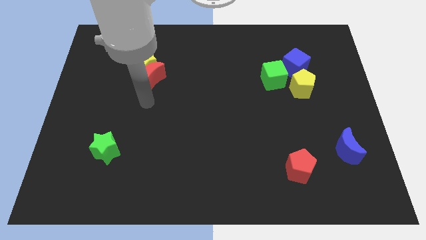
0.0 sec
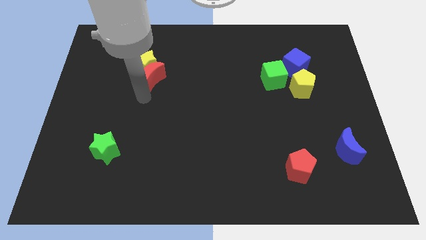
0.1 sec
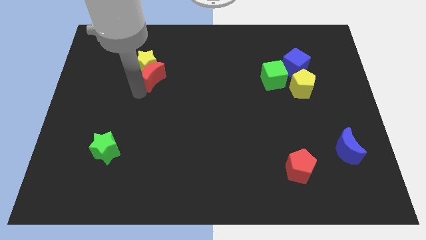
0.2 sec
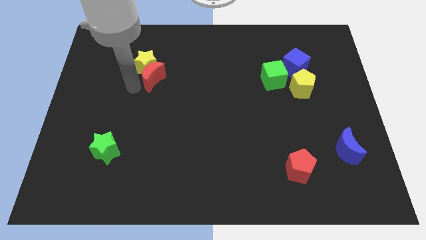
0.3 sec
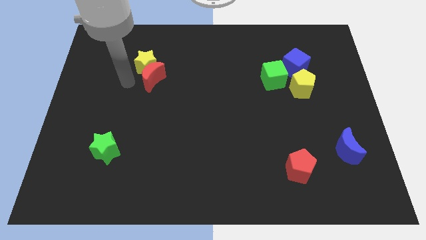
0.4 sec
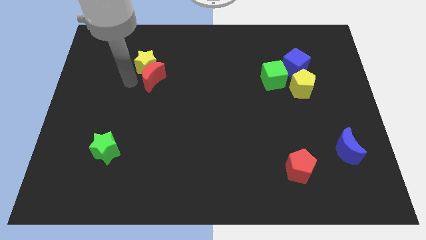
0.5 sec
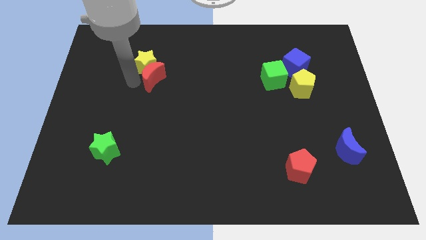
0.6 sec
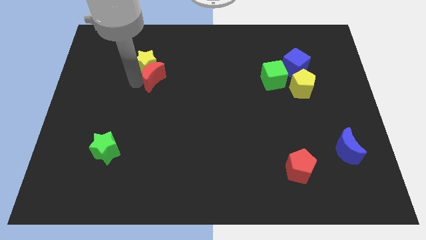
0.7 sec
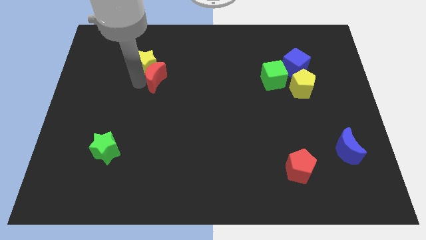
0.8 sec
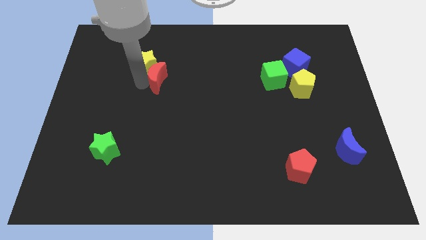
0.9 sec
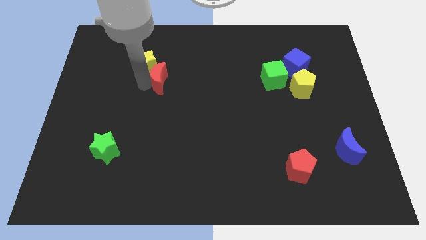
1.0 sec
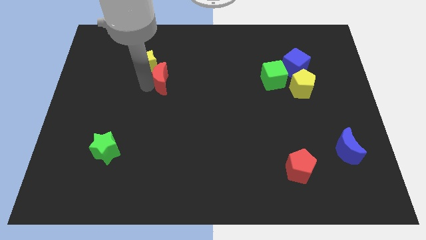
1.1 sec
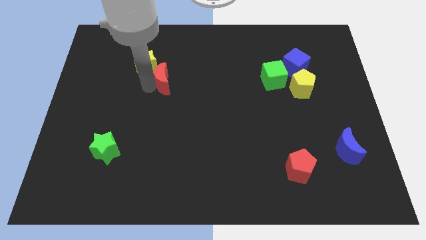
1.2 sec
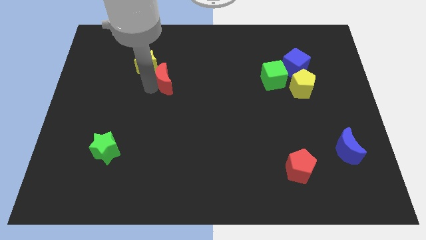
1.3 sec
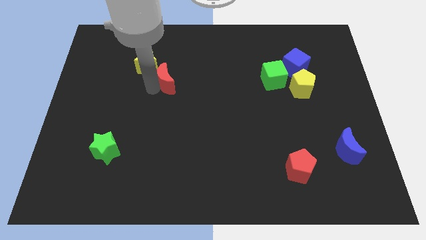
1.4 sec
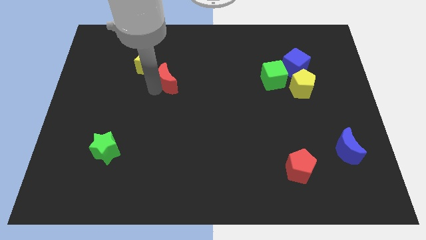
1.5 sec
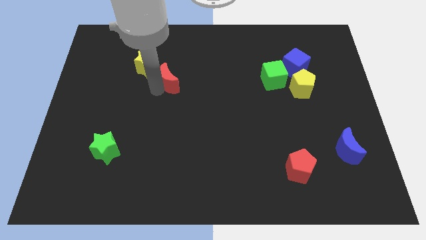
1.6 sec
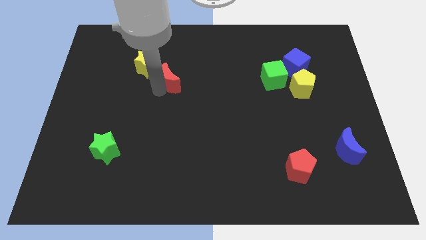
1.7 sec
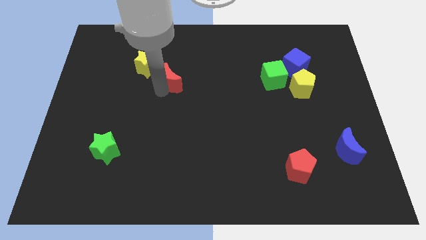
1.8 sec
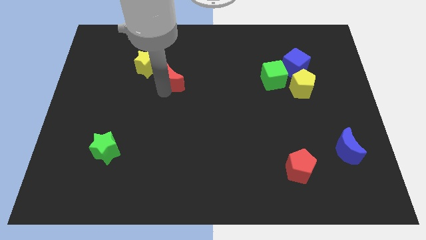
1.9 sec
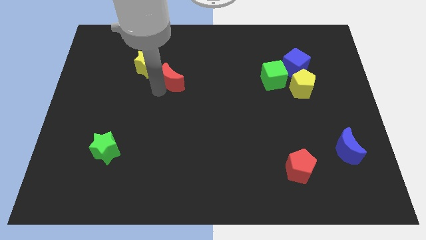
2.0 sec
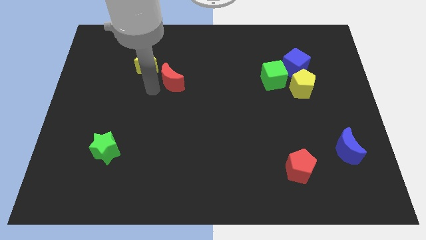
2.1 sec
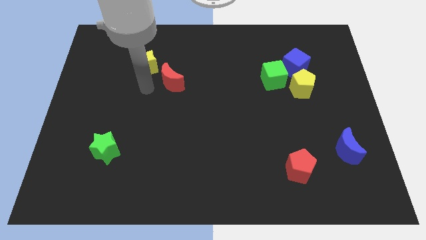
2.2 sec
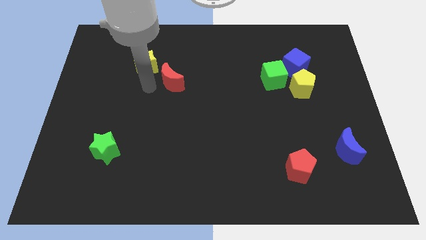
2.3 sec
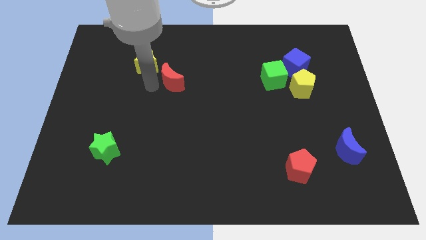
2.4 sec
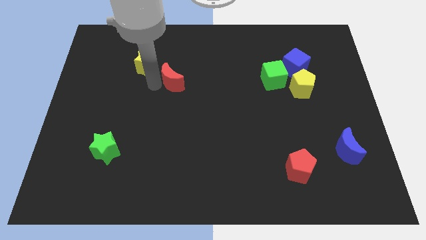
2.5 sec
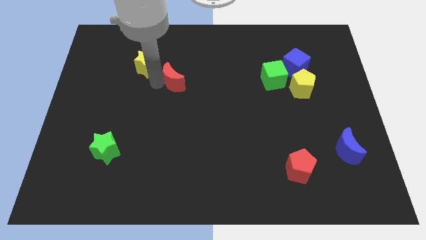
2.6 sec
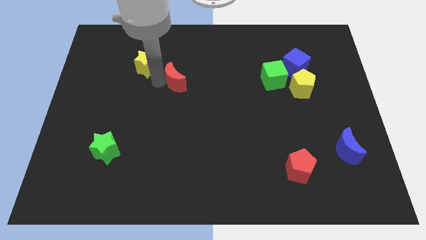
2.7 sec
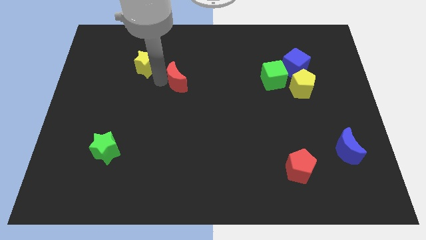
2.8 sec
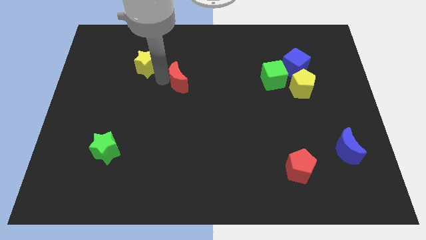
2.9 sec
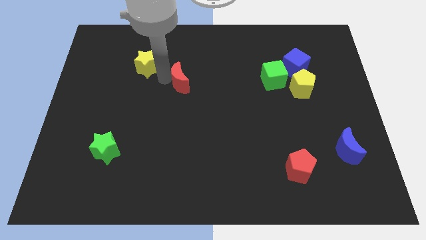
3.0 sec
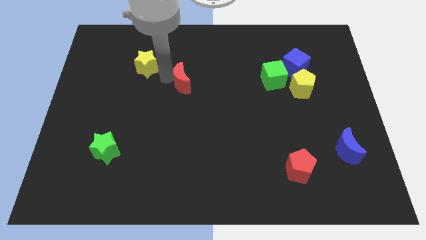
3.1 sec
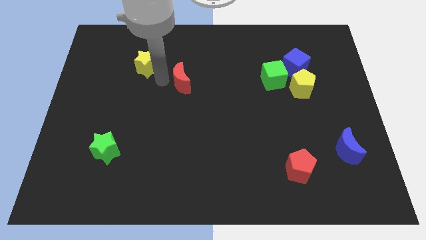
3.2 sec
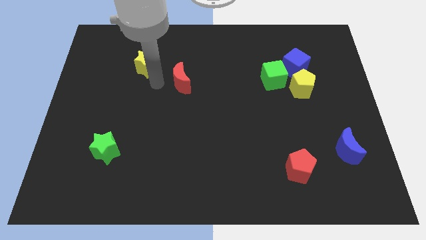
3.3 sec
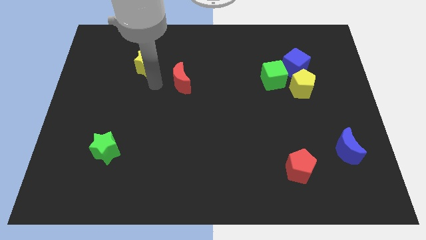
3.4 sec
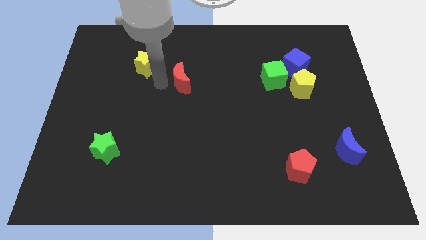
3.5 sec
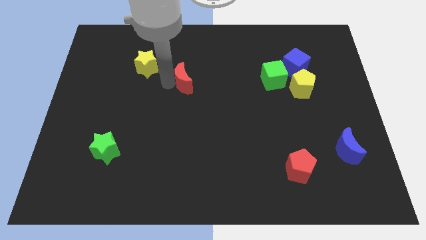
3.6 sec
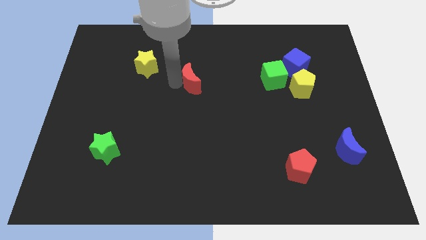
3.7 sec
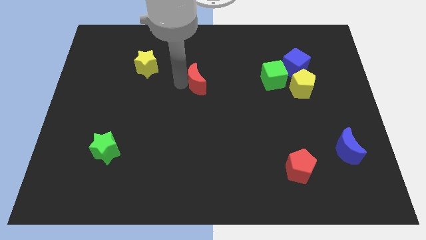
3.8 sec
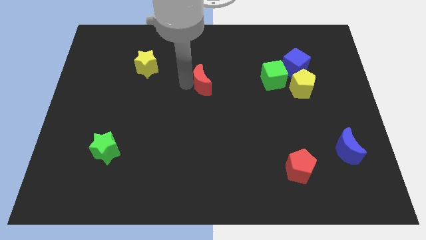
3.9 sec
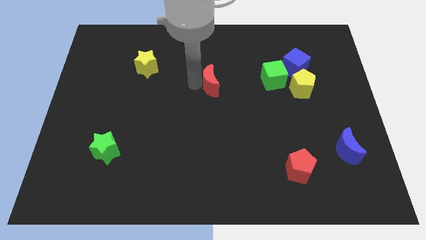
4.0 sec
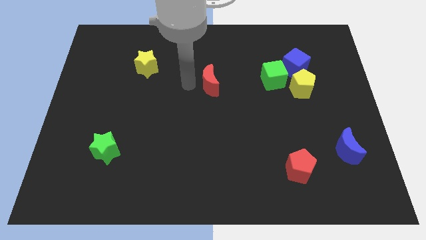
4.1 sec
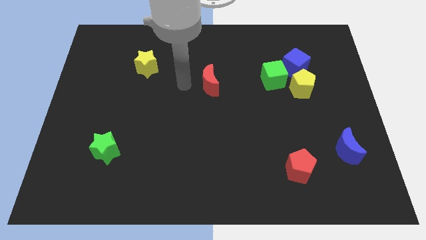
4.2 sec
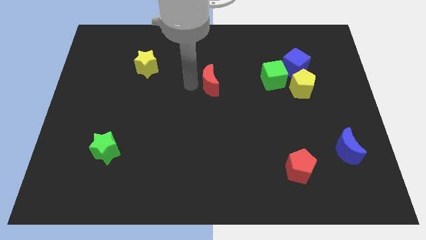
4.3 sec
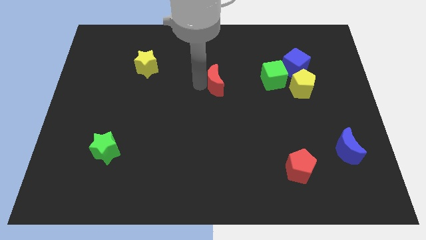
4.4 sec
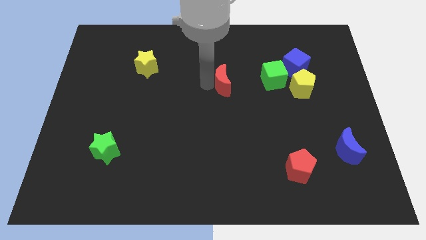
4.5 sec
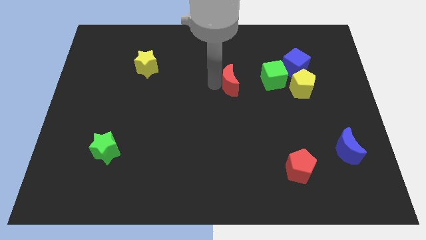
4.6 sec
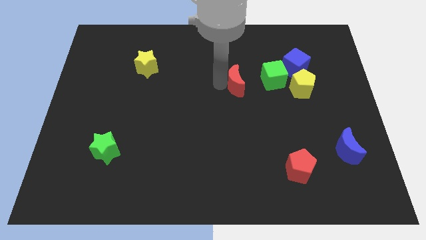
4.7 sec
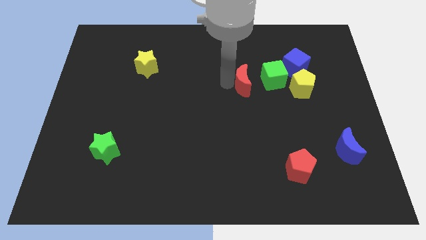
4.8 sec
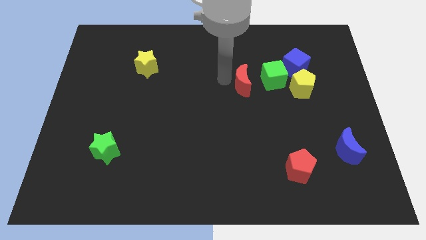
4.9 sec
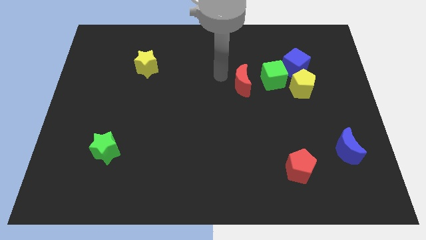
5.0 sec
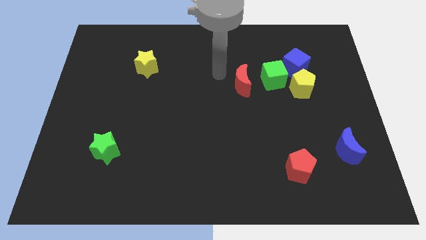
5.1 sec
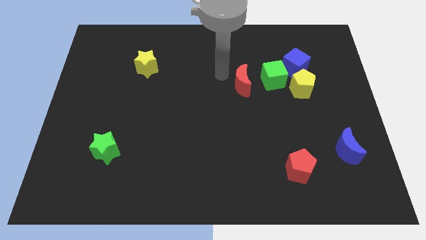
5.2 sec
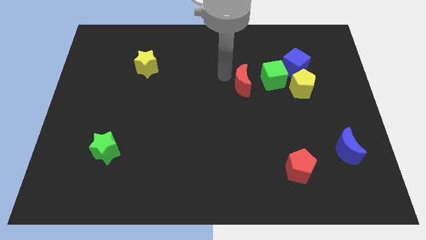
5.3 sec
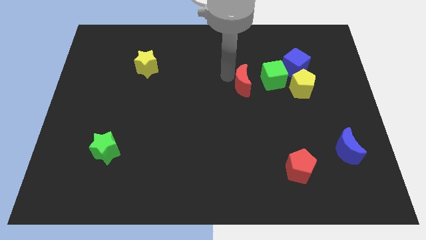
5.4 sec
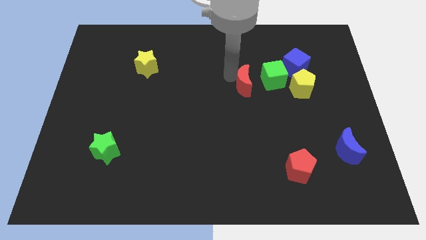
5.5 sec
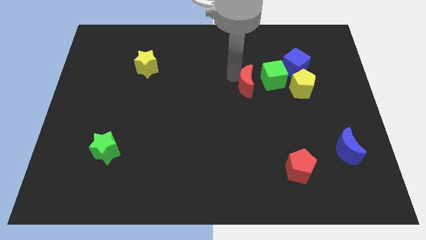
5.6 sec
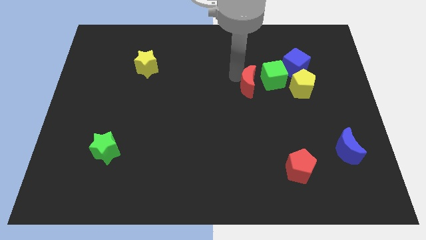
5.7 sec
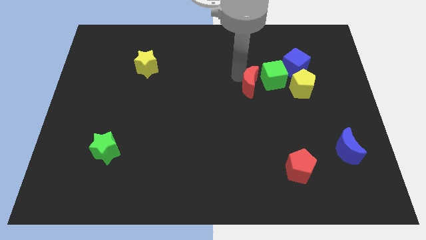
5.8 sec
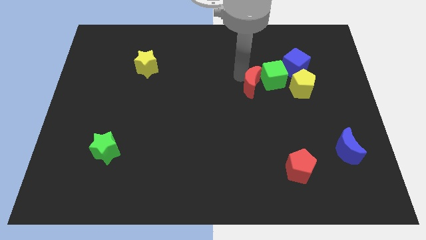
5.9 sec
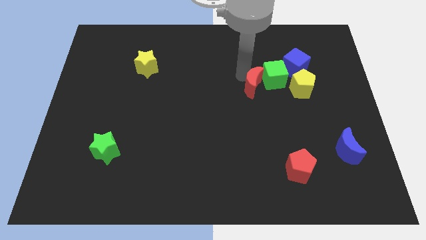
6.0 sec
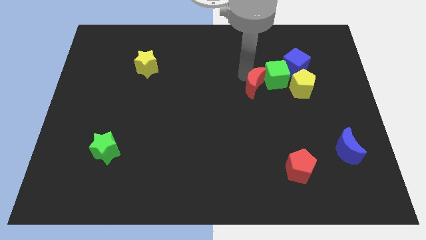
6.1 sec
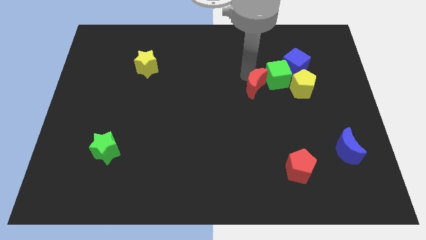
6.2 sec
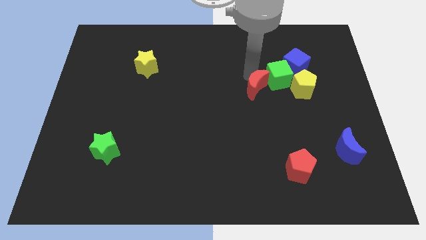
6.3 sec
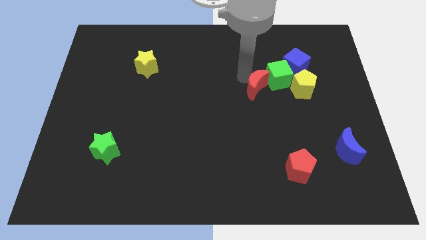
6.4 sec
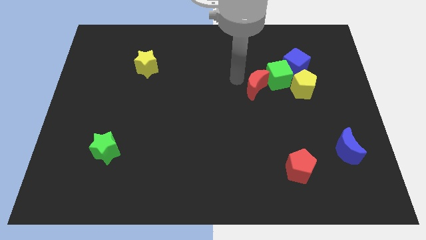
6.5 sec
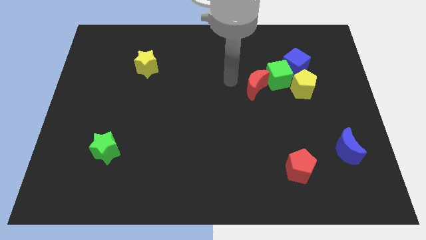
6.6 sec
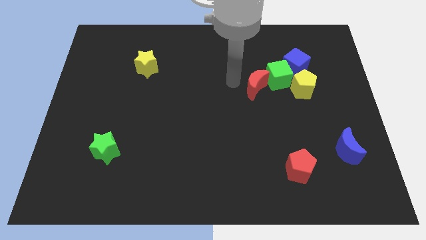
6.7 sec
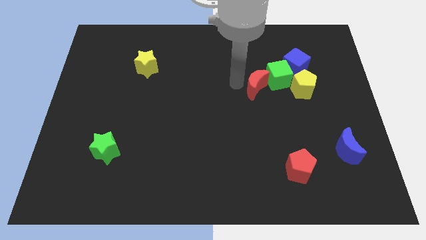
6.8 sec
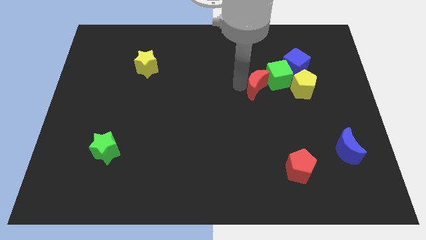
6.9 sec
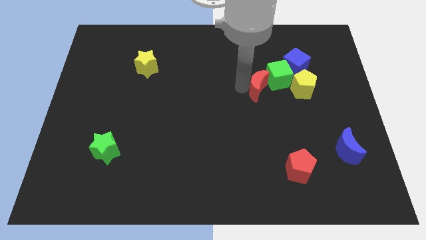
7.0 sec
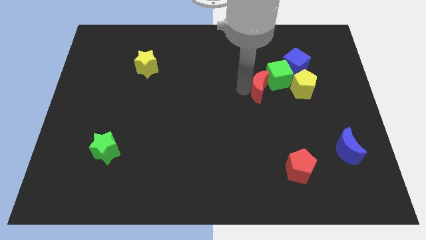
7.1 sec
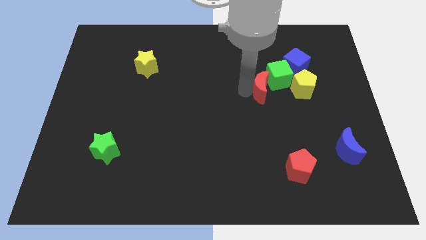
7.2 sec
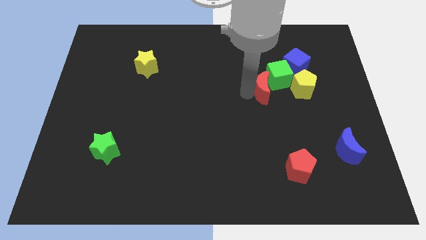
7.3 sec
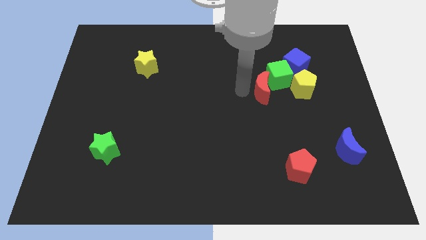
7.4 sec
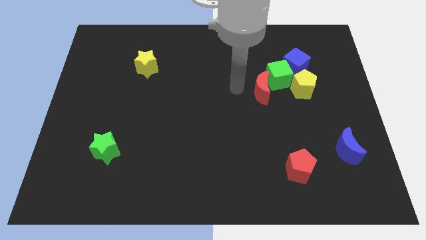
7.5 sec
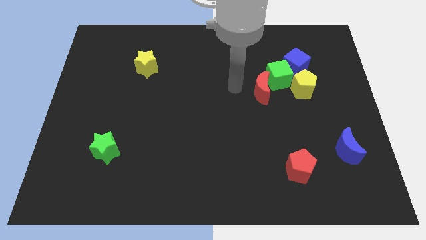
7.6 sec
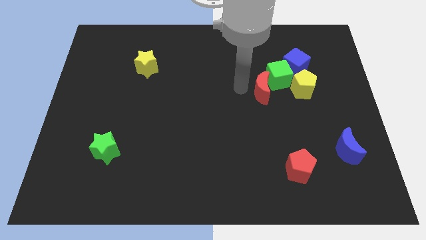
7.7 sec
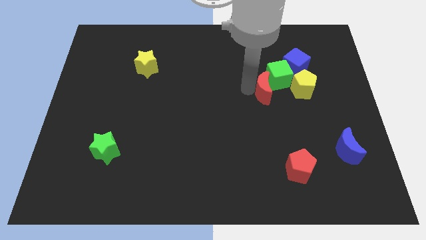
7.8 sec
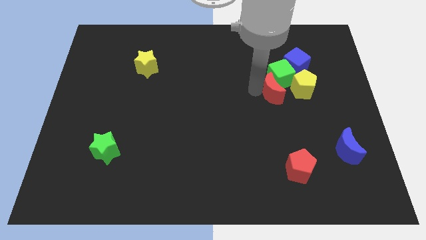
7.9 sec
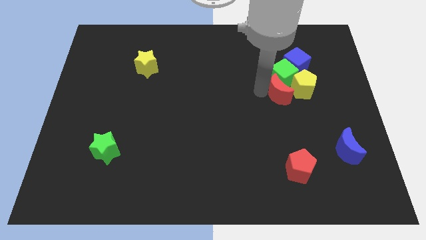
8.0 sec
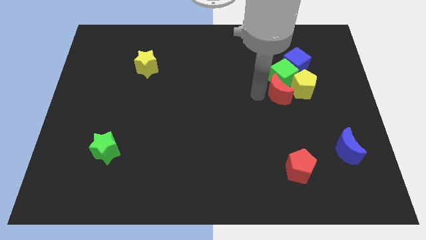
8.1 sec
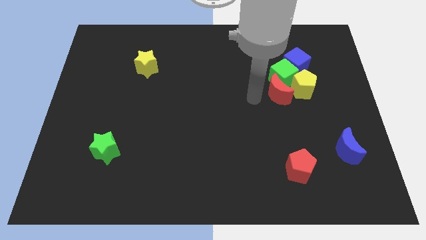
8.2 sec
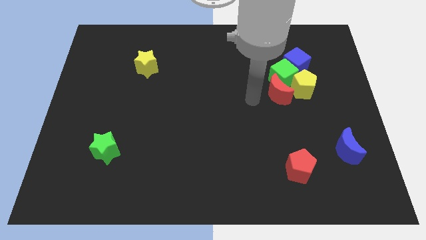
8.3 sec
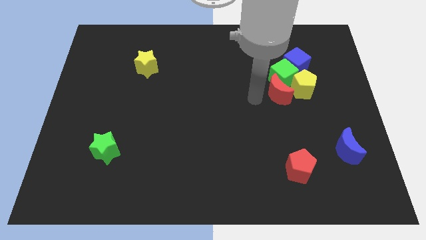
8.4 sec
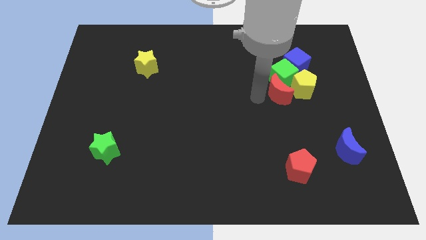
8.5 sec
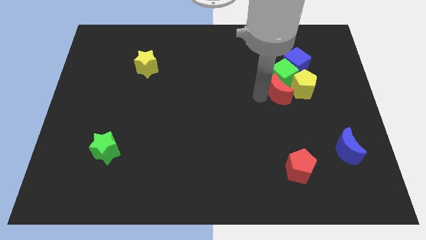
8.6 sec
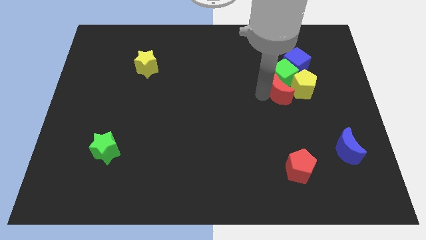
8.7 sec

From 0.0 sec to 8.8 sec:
move the red moon next to the yellow pentagon
